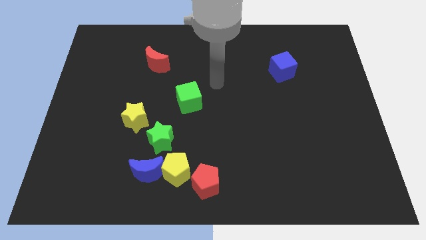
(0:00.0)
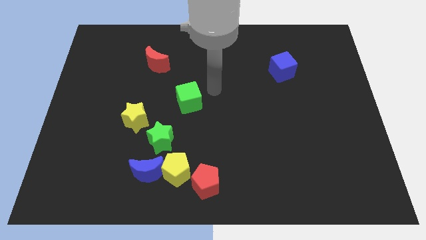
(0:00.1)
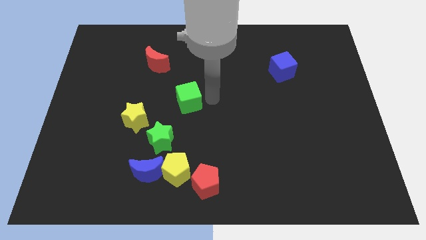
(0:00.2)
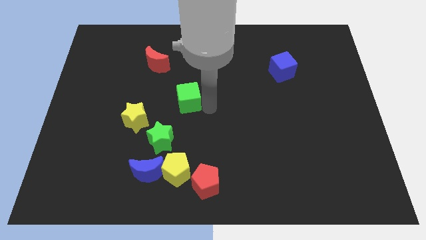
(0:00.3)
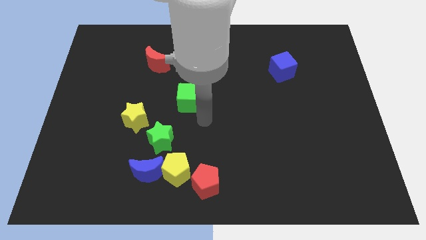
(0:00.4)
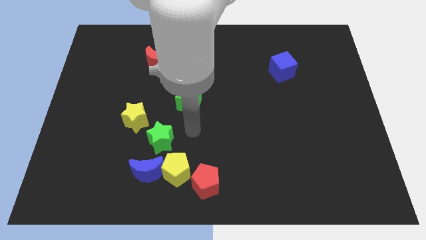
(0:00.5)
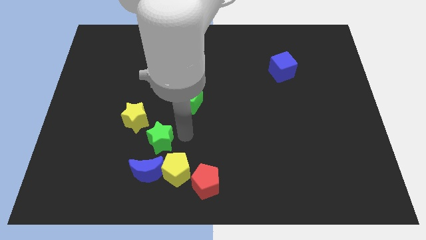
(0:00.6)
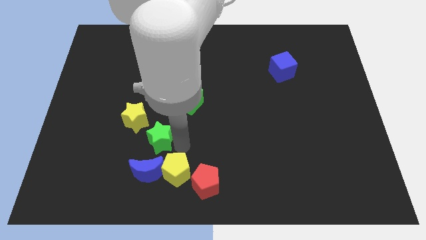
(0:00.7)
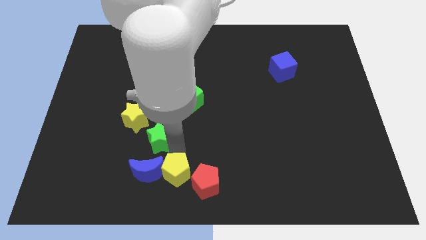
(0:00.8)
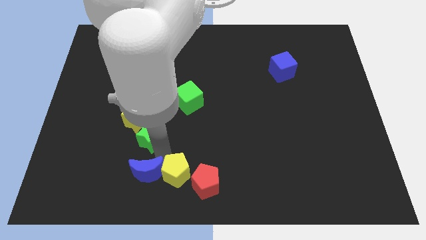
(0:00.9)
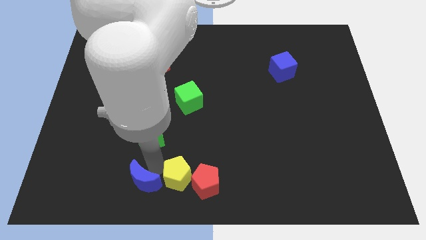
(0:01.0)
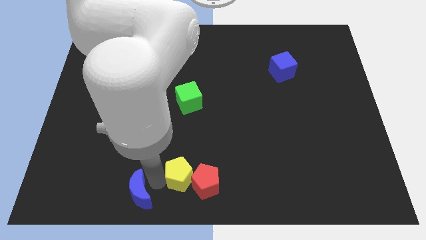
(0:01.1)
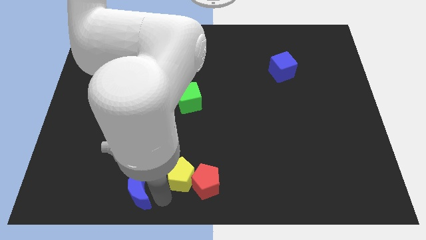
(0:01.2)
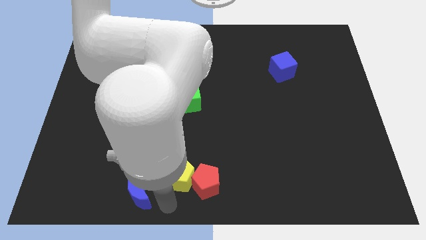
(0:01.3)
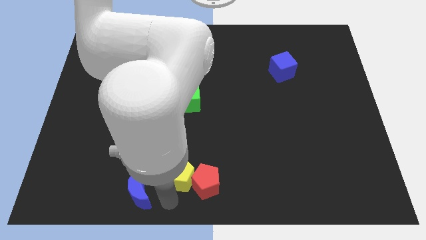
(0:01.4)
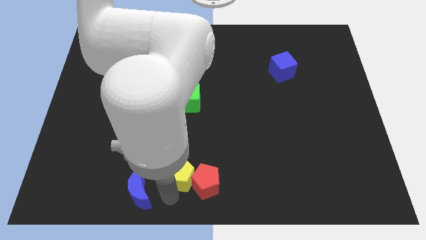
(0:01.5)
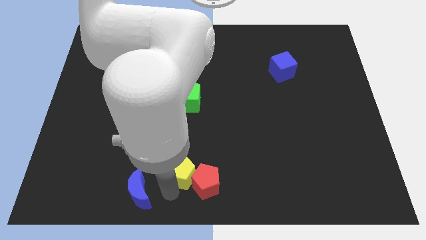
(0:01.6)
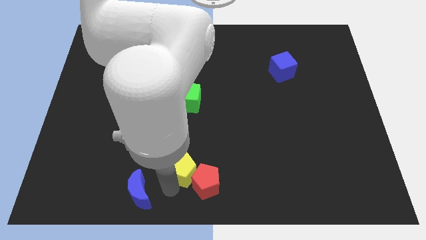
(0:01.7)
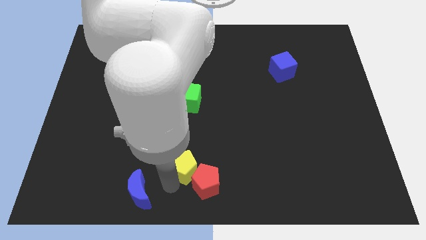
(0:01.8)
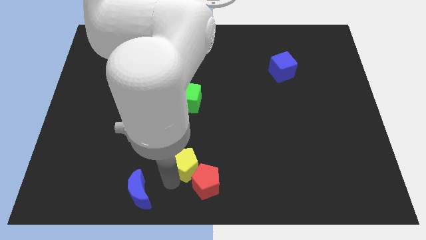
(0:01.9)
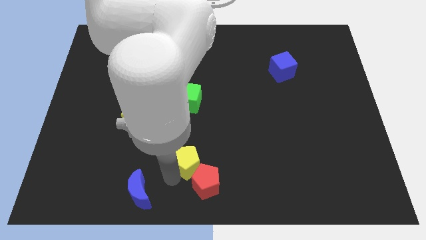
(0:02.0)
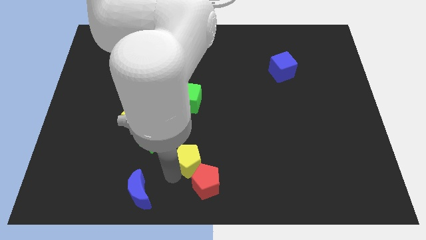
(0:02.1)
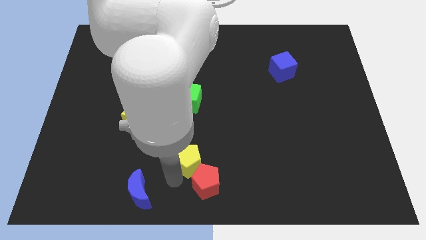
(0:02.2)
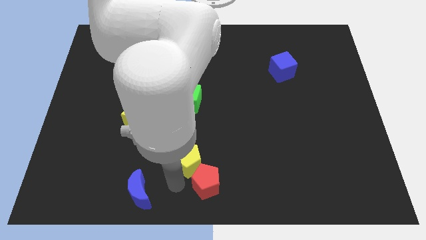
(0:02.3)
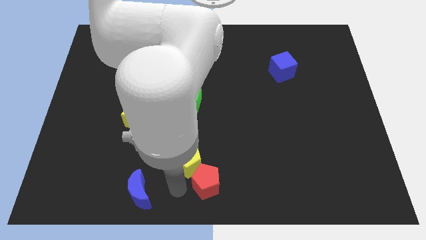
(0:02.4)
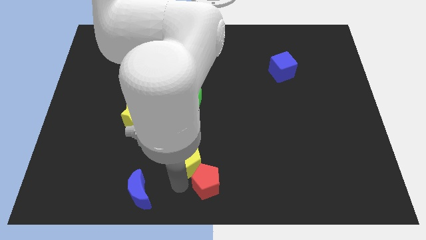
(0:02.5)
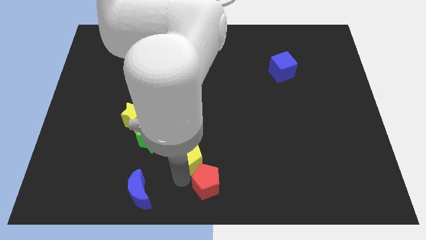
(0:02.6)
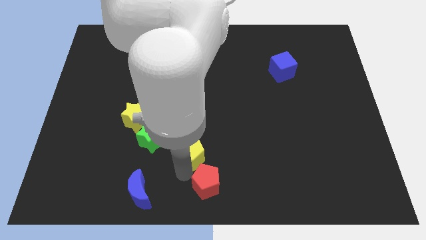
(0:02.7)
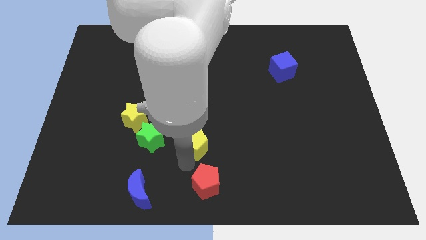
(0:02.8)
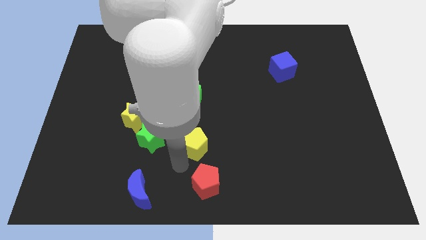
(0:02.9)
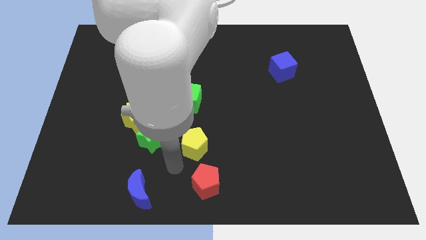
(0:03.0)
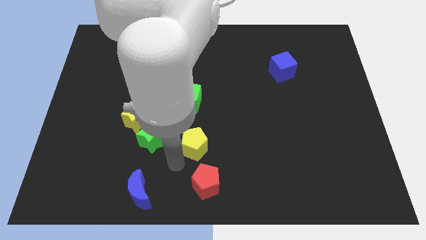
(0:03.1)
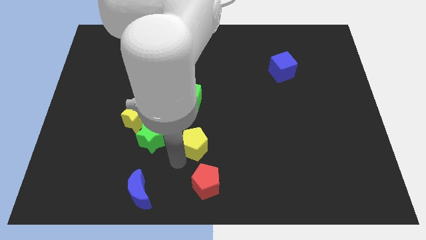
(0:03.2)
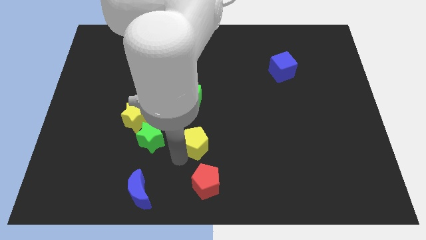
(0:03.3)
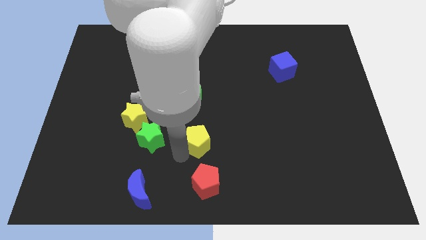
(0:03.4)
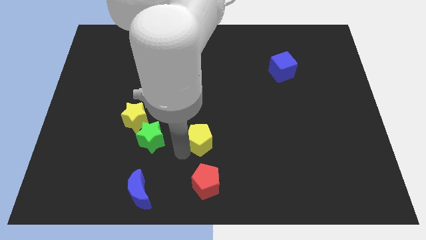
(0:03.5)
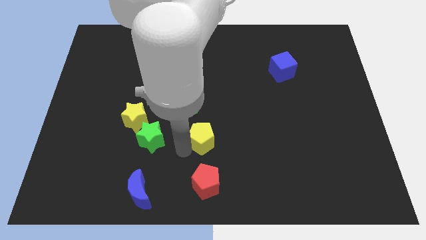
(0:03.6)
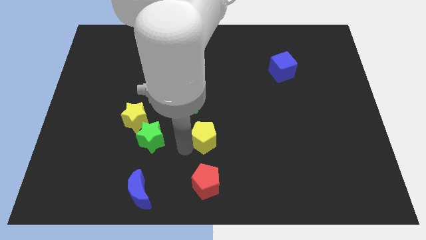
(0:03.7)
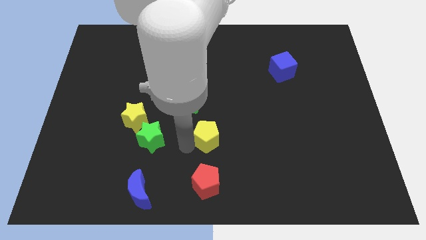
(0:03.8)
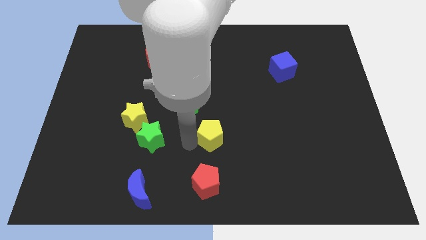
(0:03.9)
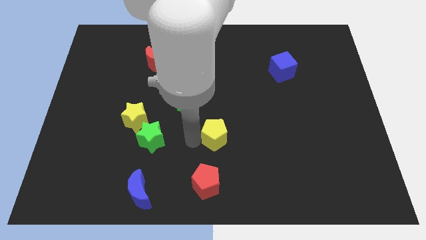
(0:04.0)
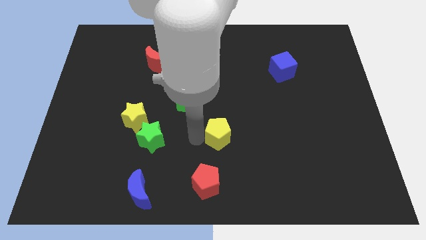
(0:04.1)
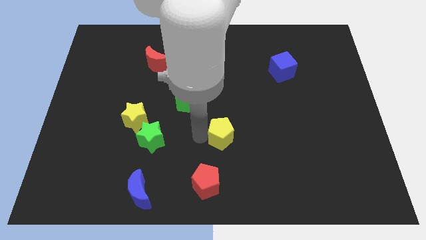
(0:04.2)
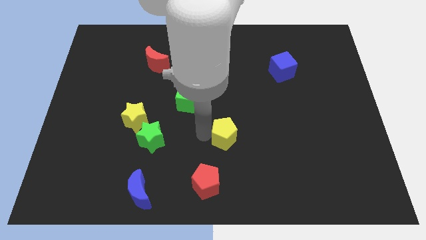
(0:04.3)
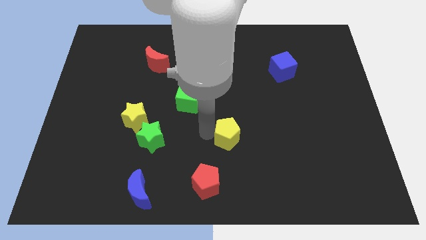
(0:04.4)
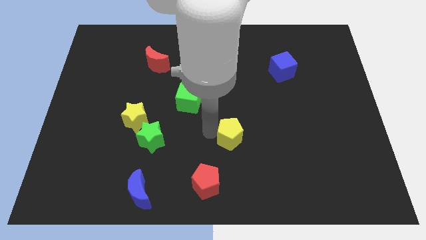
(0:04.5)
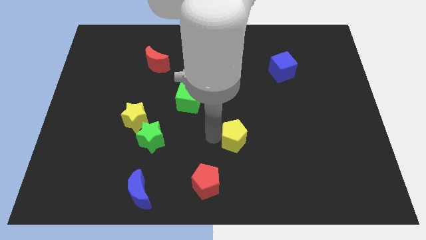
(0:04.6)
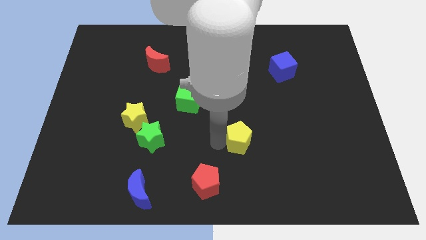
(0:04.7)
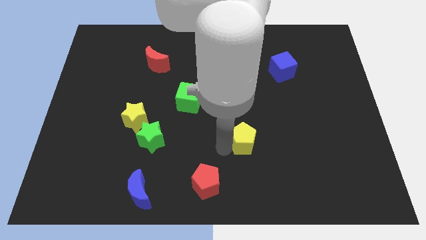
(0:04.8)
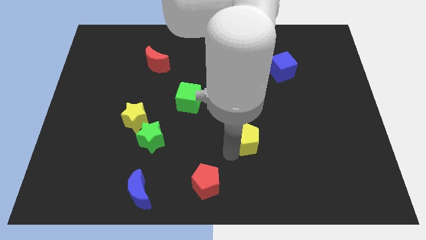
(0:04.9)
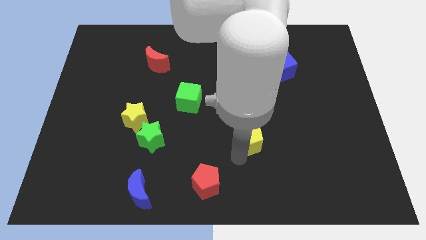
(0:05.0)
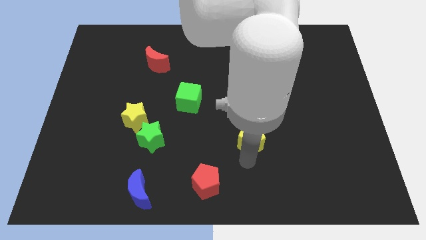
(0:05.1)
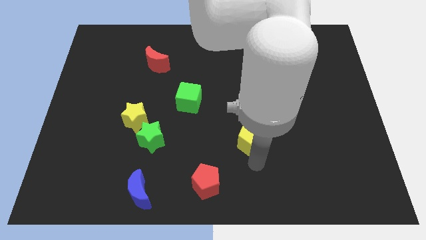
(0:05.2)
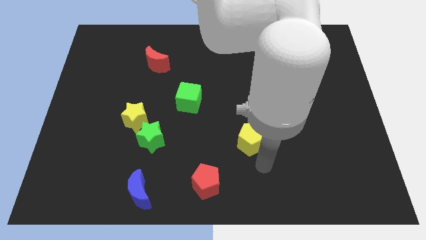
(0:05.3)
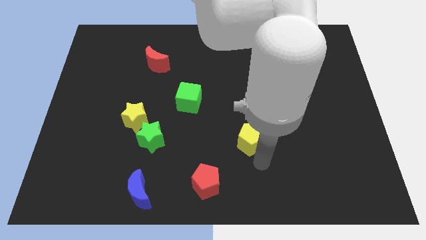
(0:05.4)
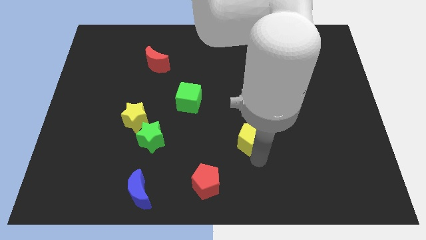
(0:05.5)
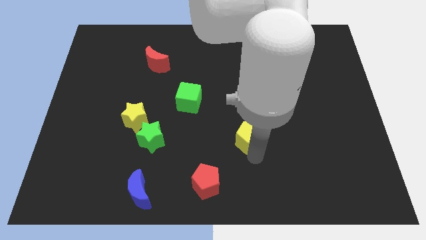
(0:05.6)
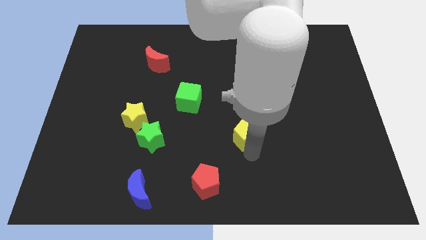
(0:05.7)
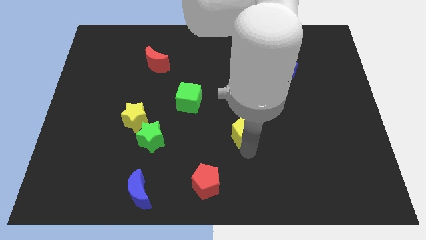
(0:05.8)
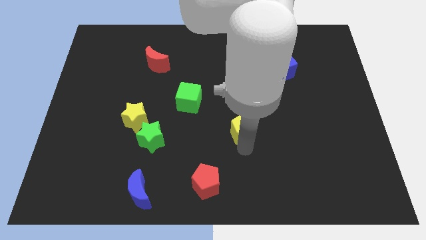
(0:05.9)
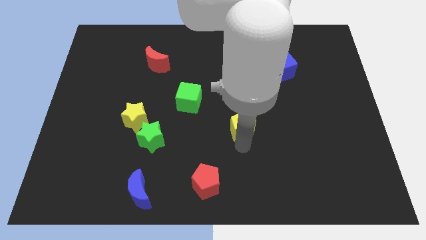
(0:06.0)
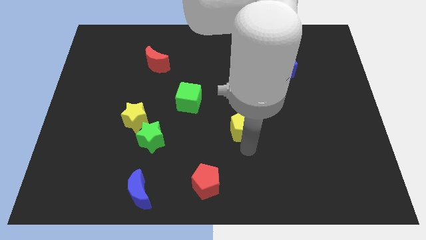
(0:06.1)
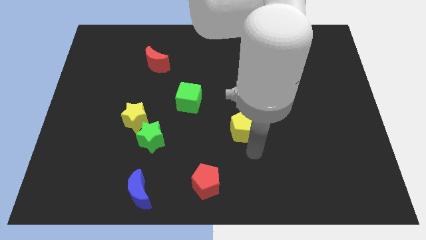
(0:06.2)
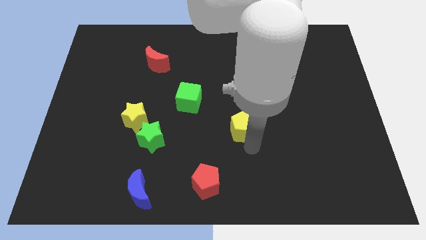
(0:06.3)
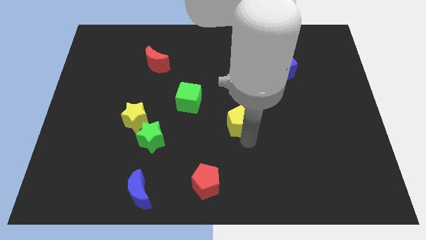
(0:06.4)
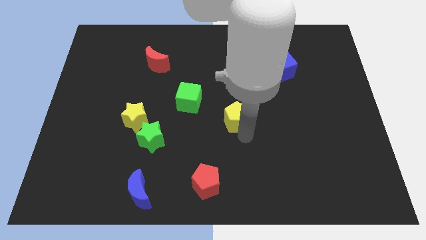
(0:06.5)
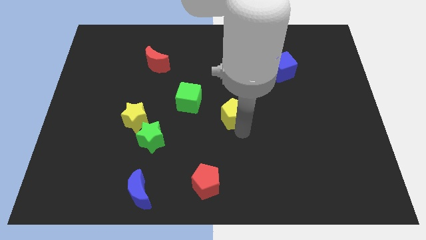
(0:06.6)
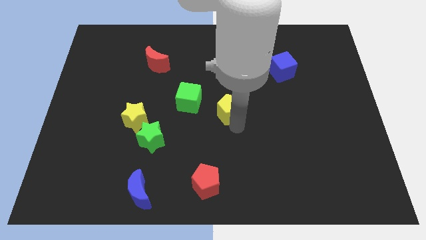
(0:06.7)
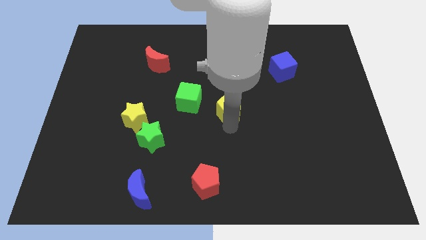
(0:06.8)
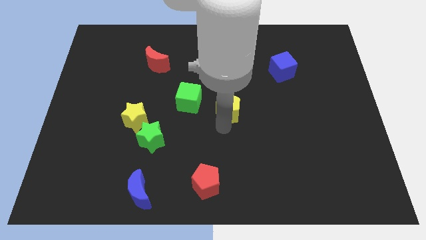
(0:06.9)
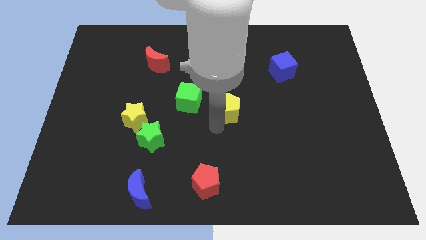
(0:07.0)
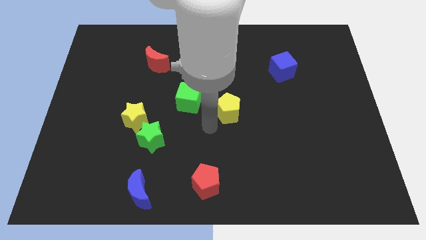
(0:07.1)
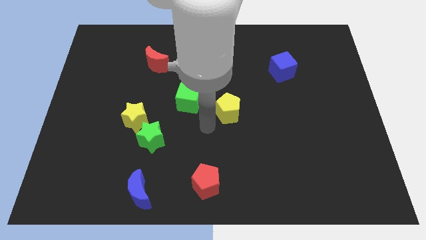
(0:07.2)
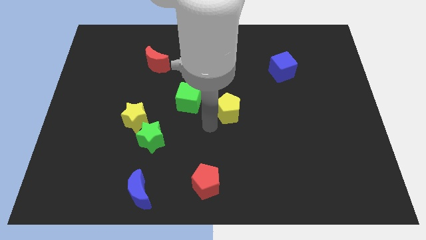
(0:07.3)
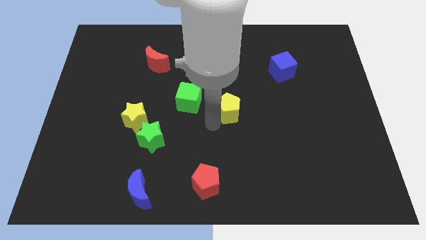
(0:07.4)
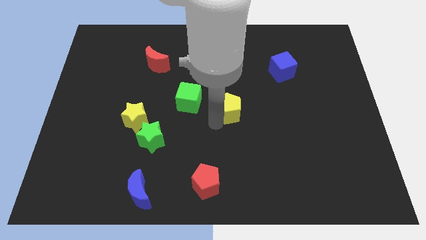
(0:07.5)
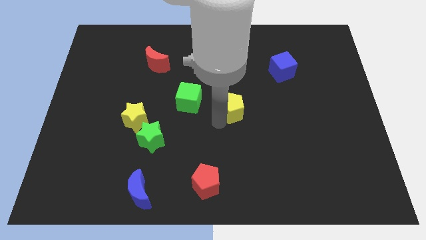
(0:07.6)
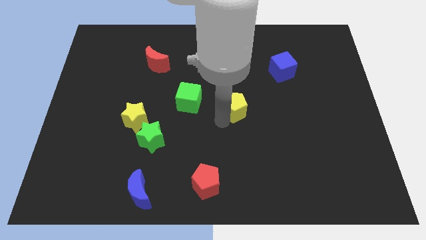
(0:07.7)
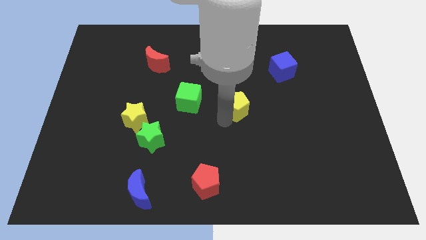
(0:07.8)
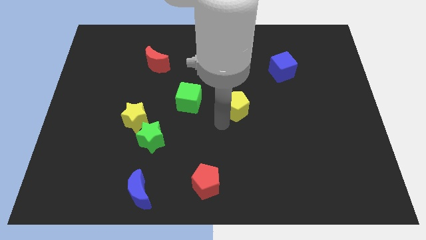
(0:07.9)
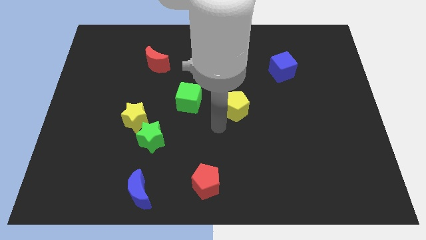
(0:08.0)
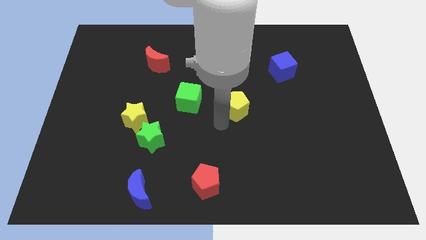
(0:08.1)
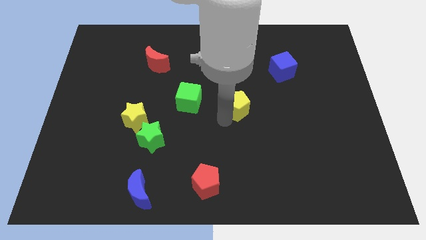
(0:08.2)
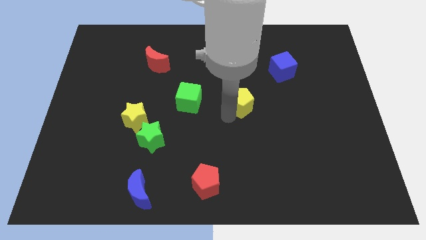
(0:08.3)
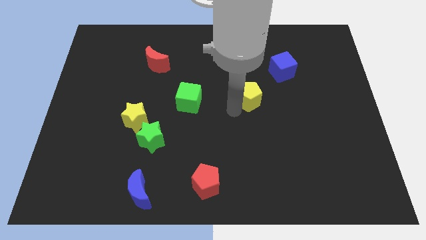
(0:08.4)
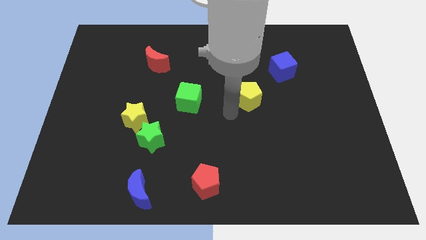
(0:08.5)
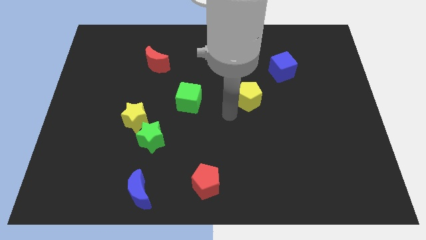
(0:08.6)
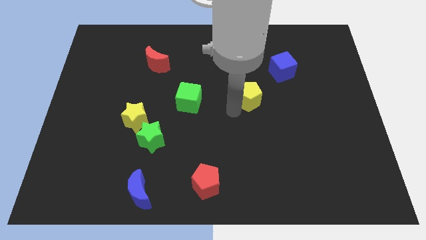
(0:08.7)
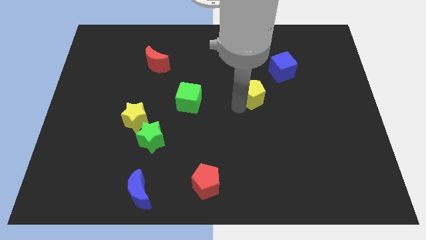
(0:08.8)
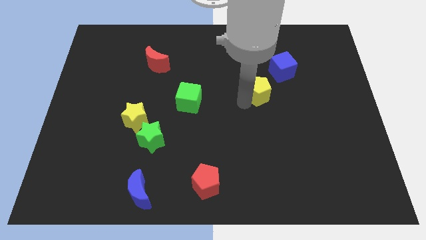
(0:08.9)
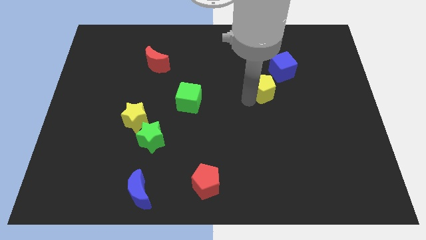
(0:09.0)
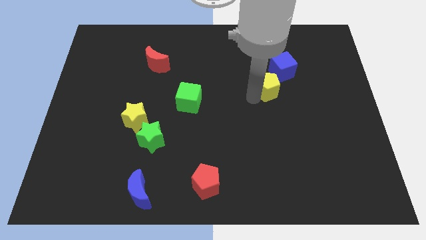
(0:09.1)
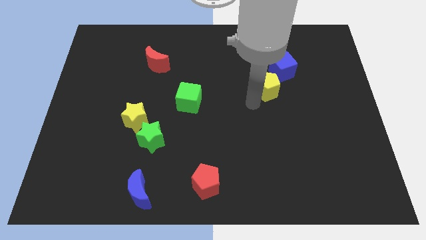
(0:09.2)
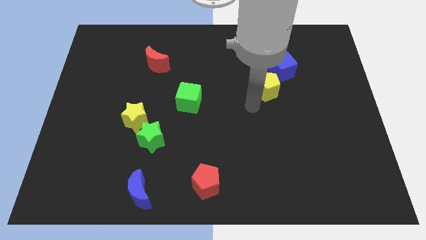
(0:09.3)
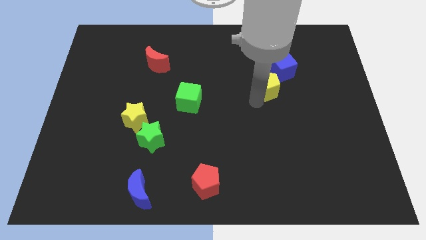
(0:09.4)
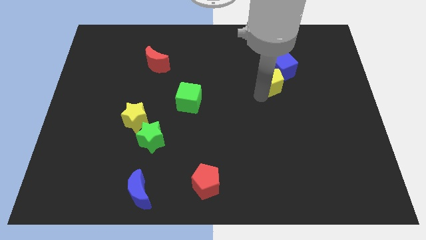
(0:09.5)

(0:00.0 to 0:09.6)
push the yellow pentagon close to the blue cube
